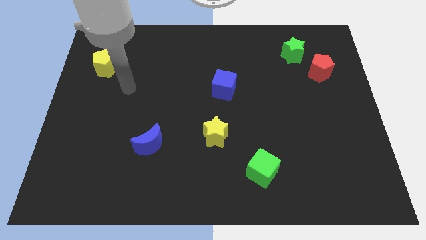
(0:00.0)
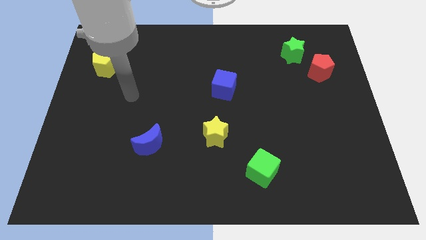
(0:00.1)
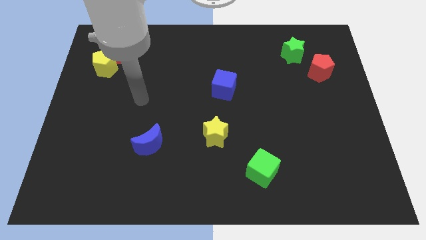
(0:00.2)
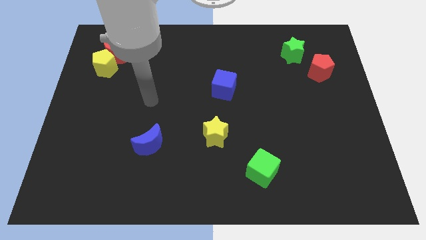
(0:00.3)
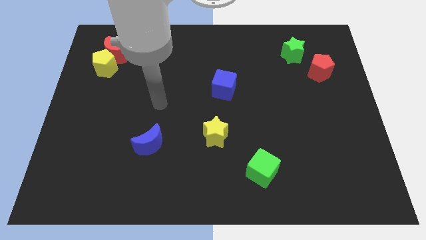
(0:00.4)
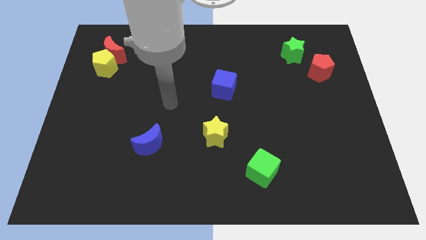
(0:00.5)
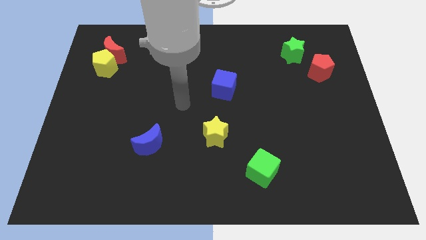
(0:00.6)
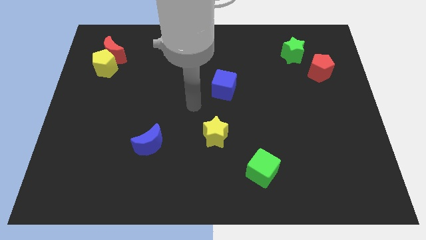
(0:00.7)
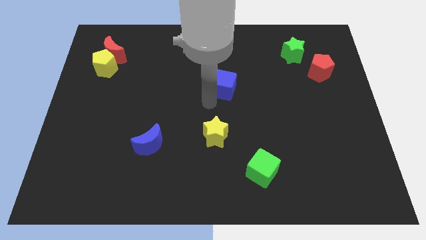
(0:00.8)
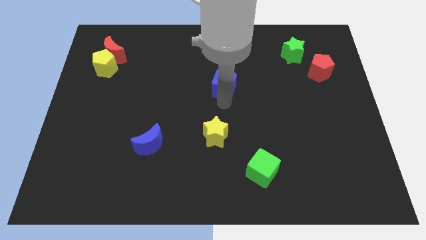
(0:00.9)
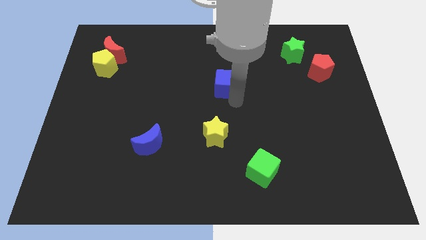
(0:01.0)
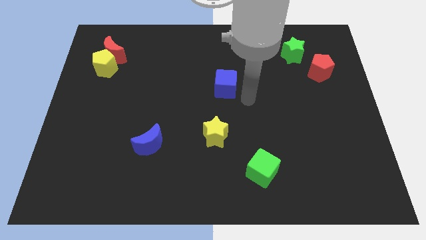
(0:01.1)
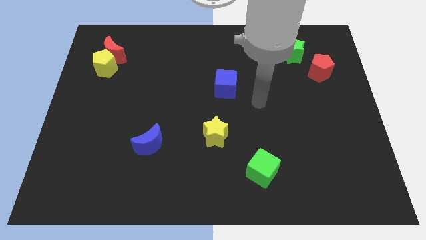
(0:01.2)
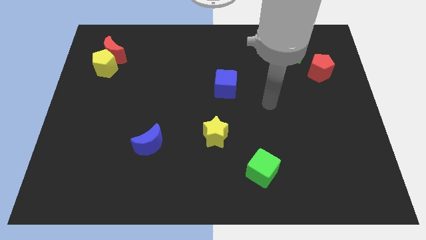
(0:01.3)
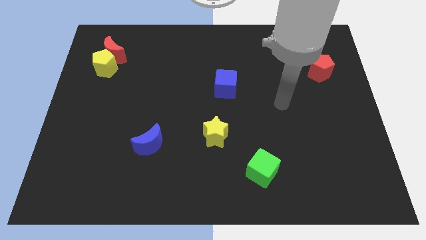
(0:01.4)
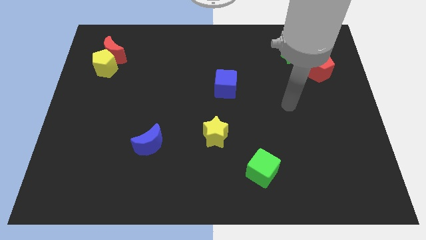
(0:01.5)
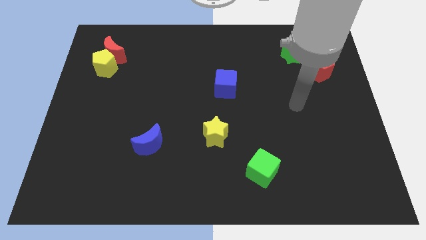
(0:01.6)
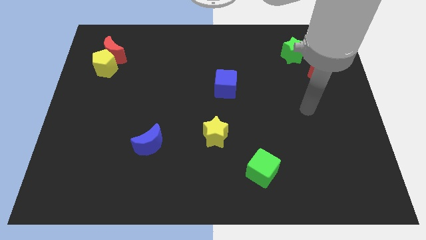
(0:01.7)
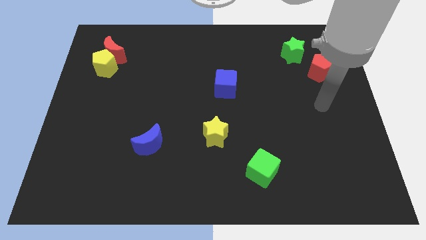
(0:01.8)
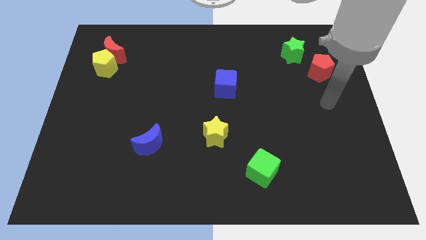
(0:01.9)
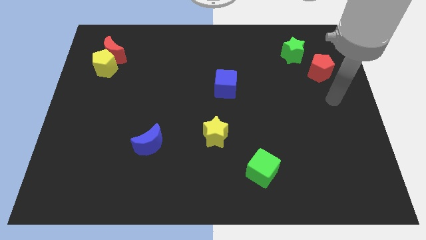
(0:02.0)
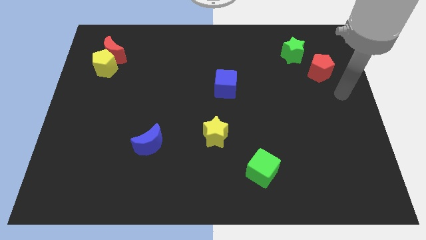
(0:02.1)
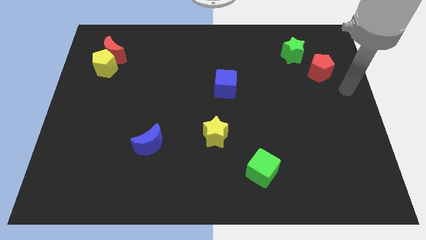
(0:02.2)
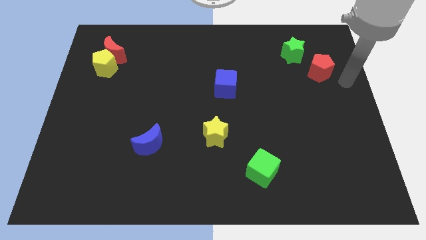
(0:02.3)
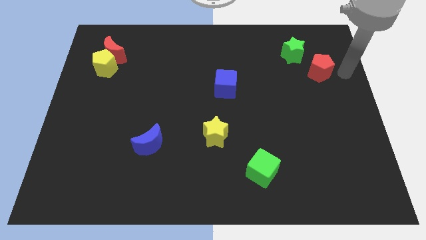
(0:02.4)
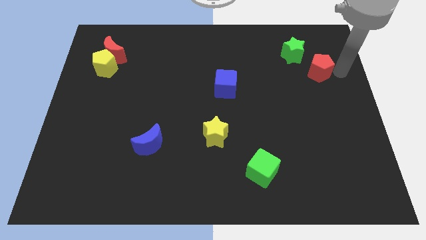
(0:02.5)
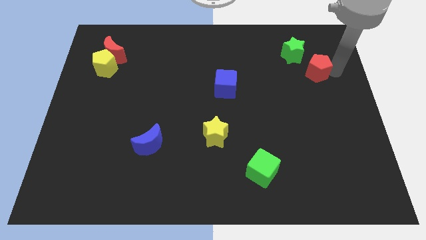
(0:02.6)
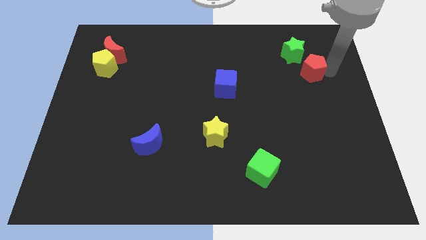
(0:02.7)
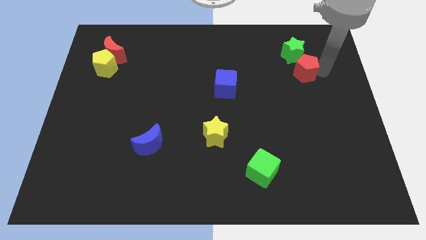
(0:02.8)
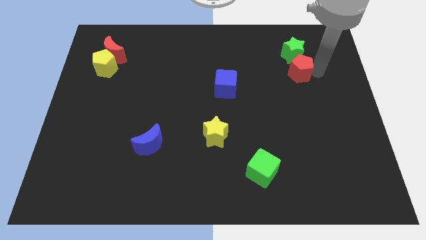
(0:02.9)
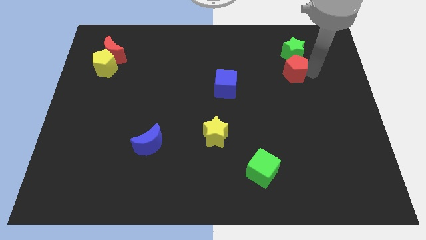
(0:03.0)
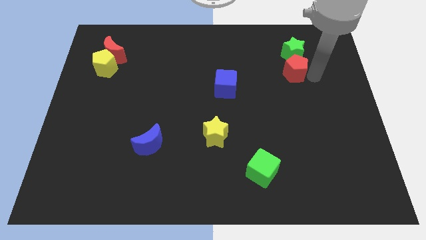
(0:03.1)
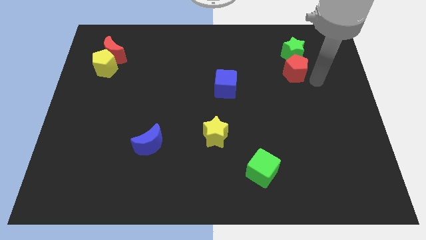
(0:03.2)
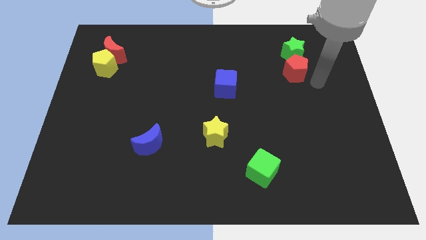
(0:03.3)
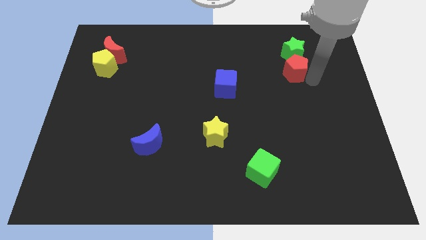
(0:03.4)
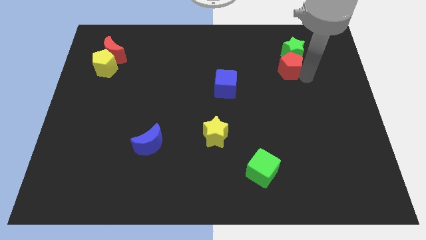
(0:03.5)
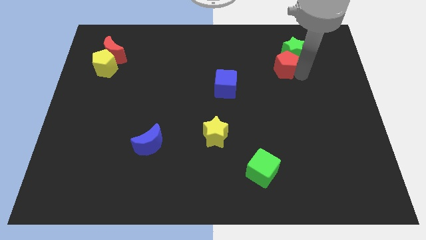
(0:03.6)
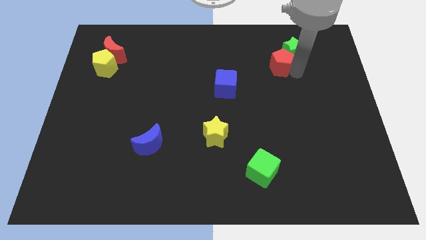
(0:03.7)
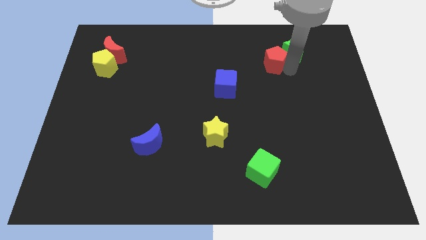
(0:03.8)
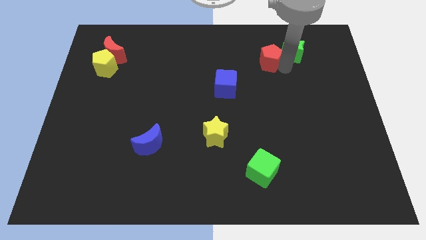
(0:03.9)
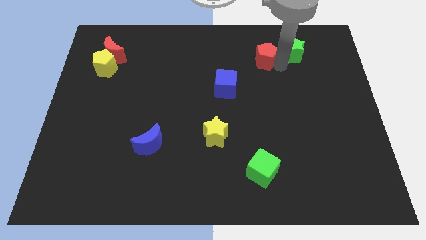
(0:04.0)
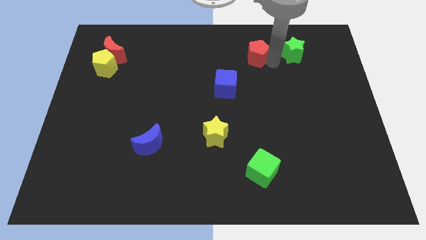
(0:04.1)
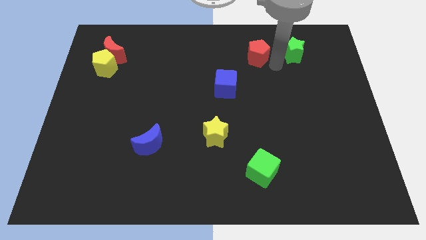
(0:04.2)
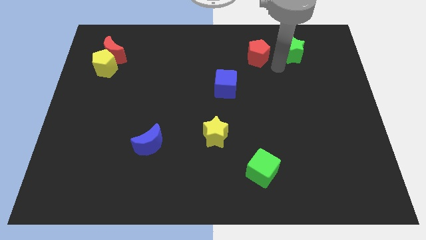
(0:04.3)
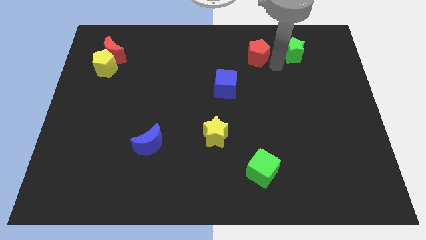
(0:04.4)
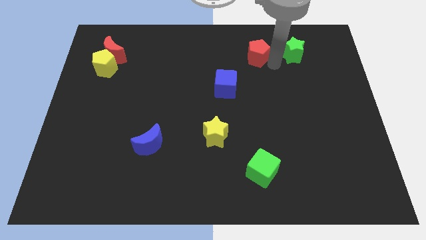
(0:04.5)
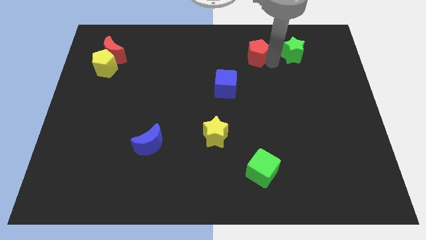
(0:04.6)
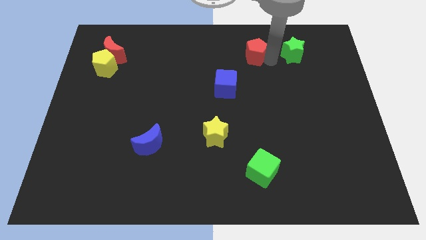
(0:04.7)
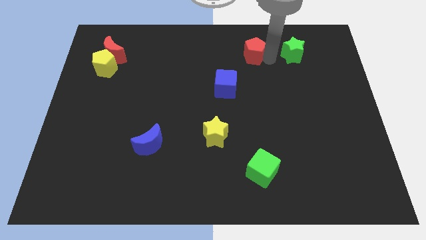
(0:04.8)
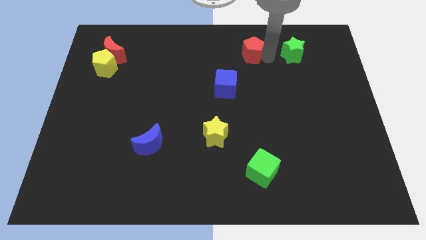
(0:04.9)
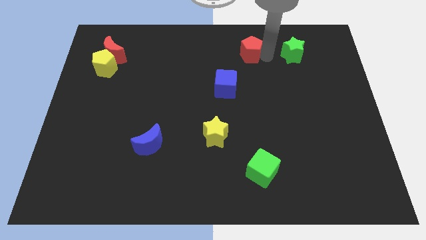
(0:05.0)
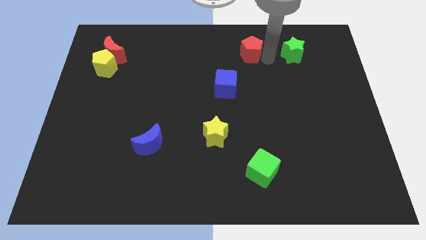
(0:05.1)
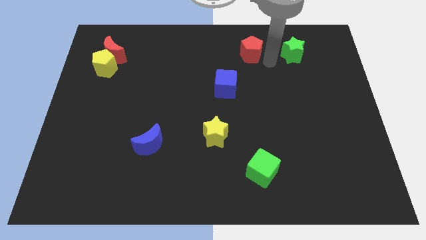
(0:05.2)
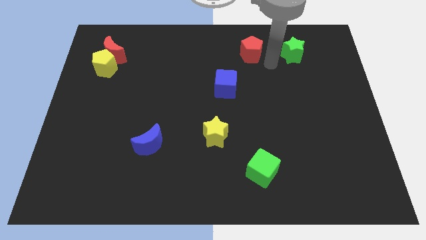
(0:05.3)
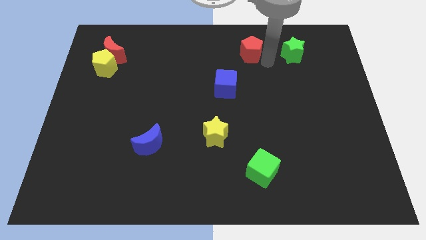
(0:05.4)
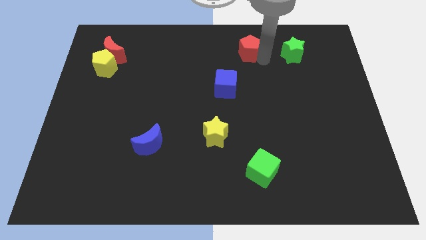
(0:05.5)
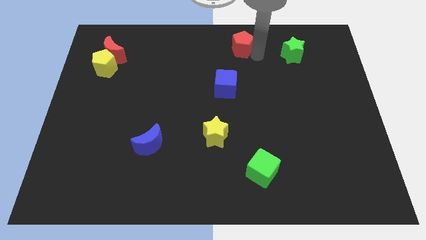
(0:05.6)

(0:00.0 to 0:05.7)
push the red pentagon to the towards your base

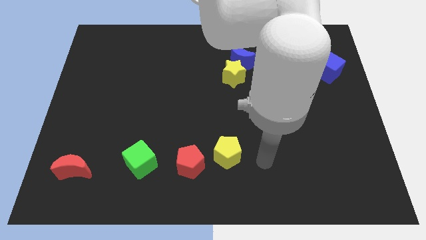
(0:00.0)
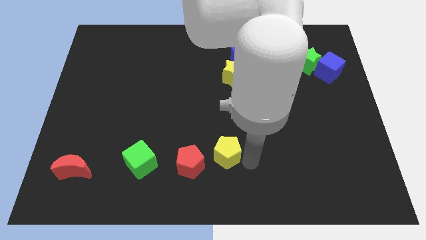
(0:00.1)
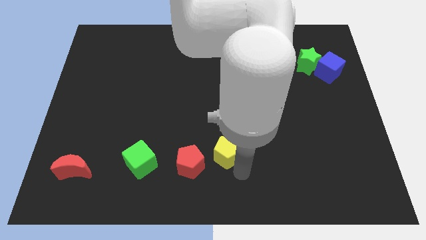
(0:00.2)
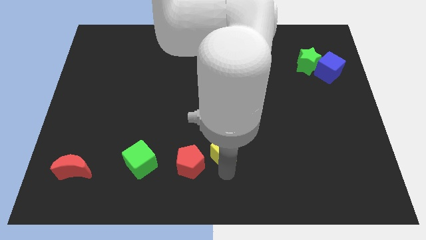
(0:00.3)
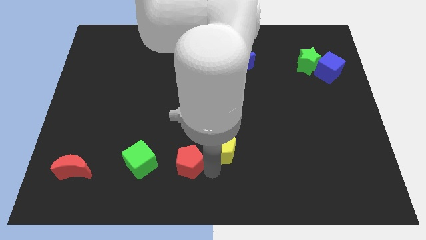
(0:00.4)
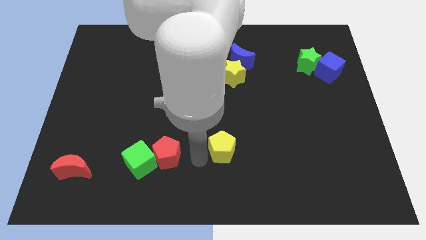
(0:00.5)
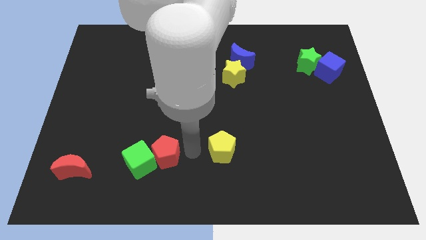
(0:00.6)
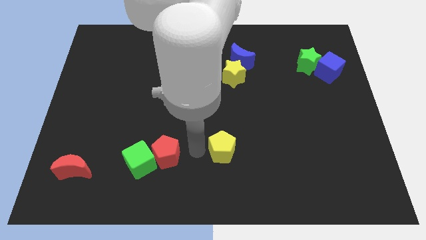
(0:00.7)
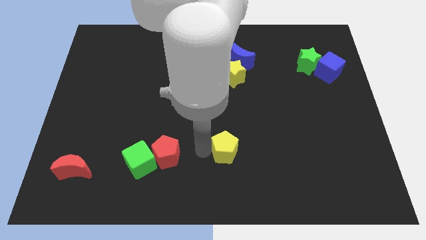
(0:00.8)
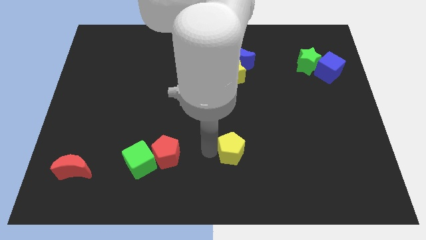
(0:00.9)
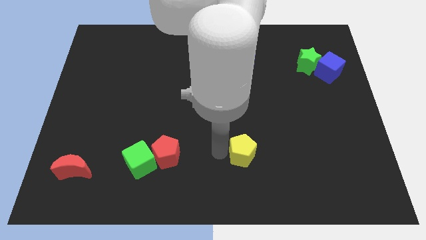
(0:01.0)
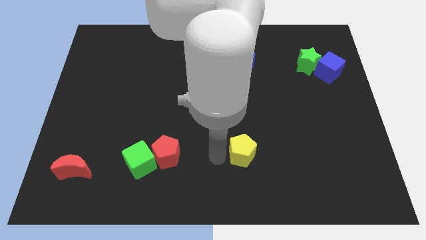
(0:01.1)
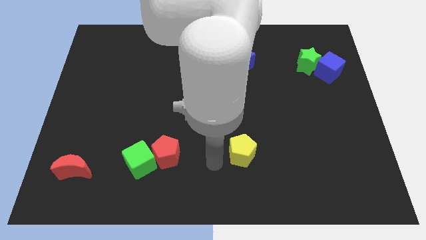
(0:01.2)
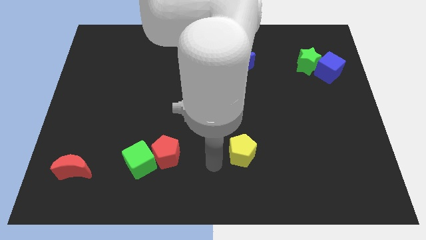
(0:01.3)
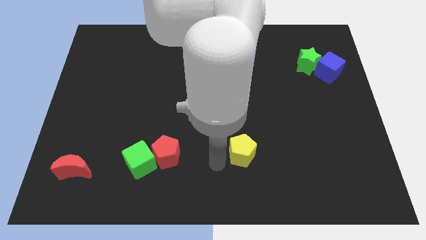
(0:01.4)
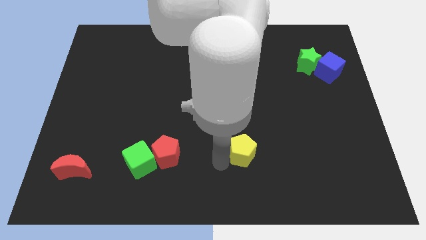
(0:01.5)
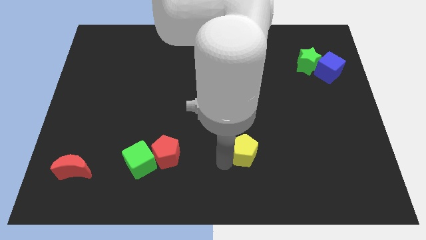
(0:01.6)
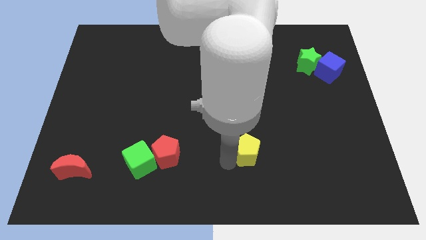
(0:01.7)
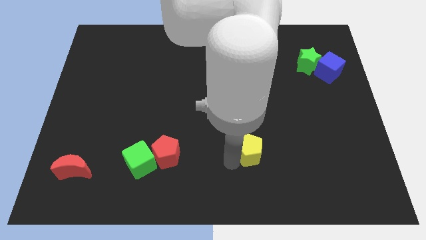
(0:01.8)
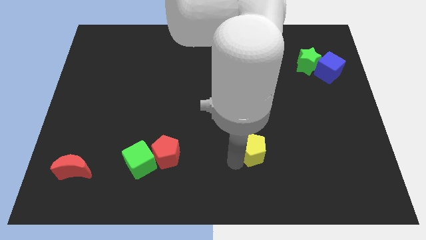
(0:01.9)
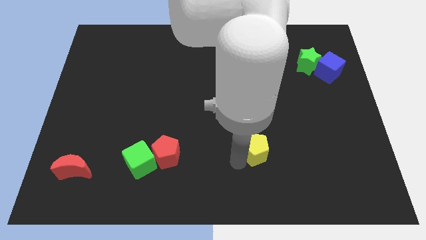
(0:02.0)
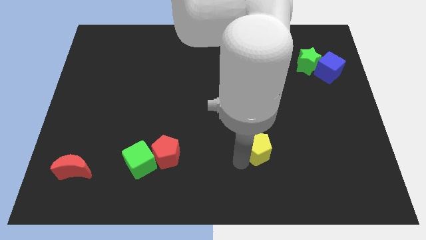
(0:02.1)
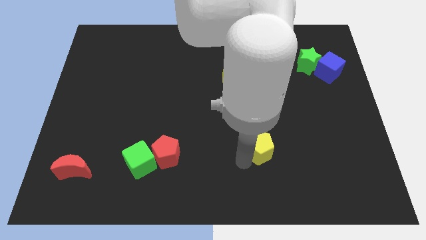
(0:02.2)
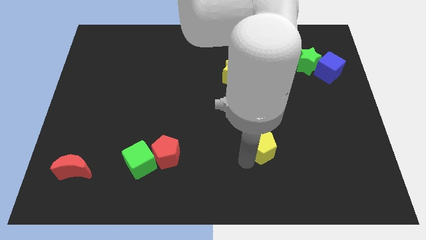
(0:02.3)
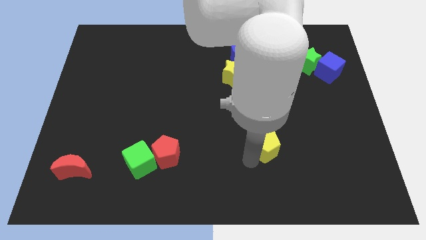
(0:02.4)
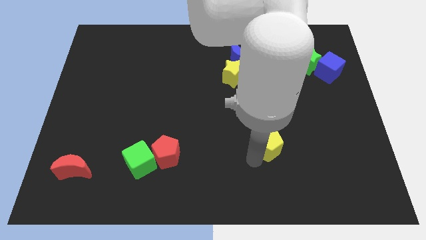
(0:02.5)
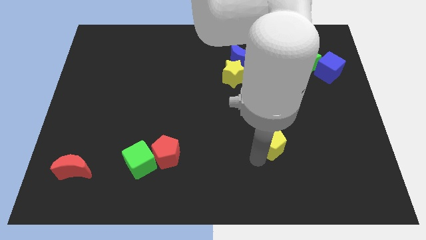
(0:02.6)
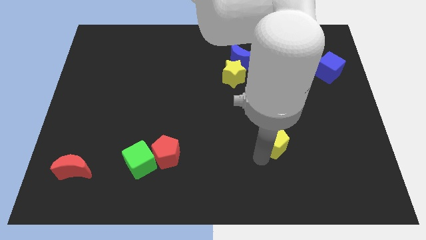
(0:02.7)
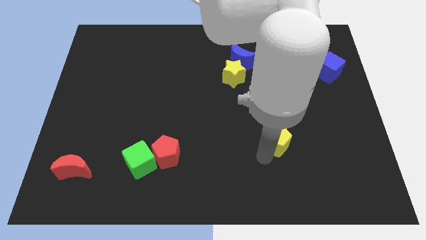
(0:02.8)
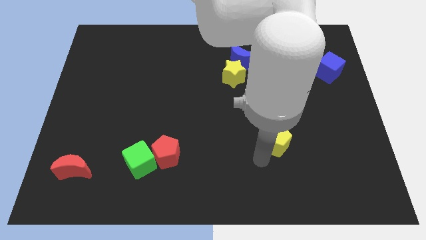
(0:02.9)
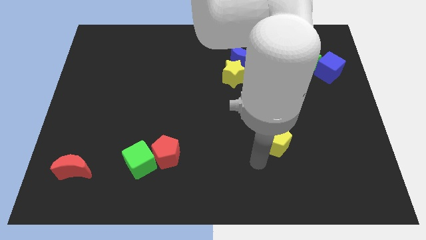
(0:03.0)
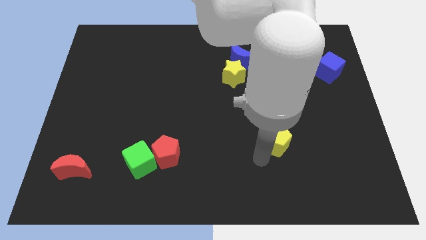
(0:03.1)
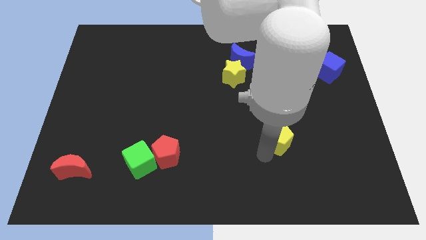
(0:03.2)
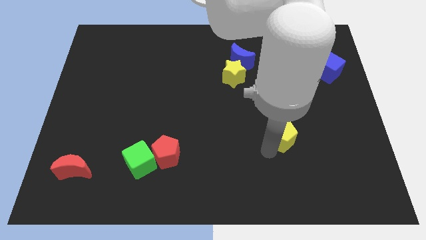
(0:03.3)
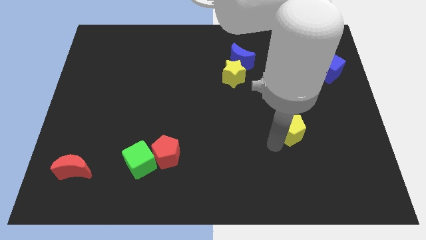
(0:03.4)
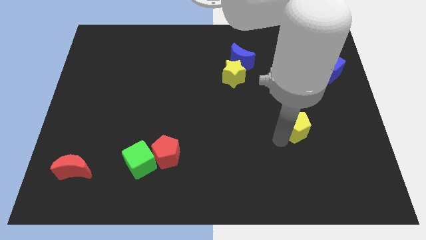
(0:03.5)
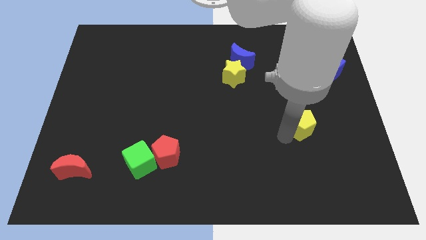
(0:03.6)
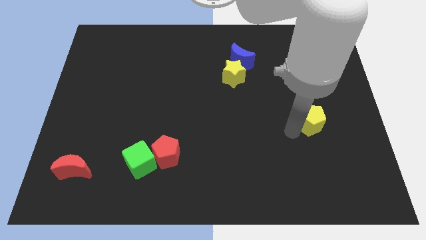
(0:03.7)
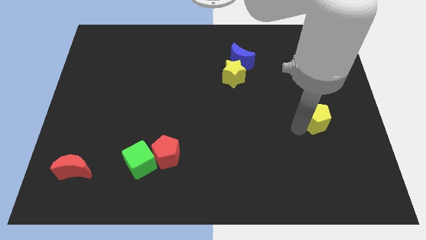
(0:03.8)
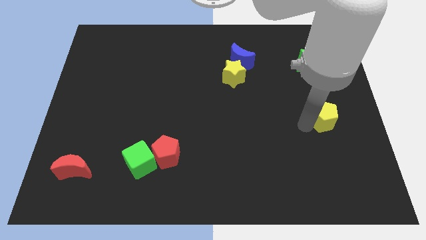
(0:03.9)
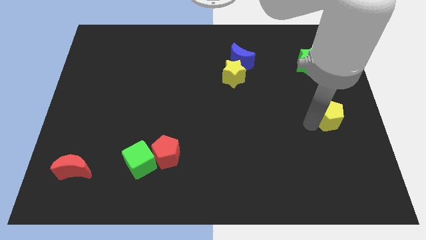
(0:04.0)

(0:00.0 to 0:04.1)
slide the yellow pentagon to the right side of the board
